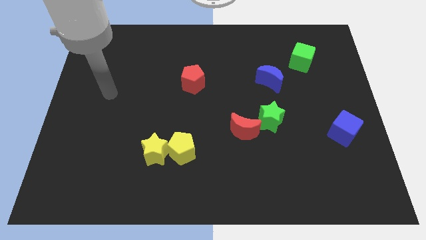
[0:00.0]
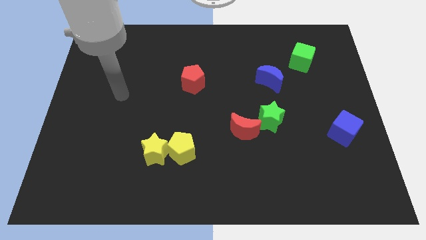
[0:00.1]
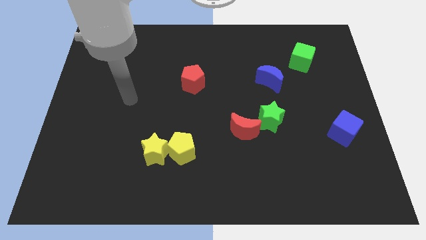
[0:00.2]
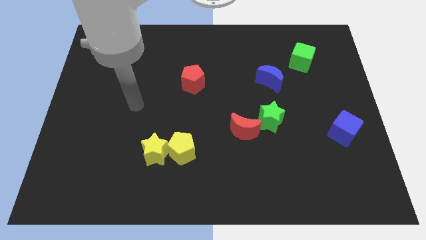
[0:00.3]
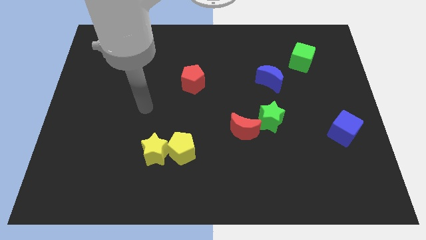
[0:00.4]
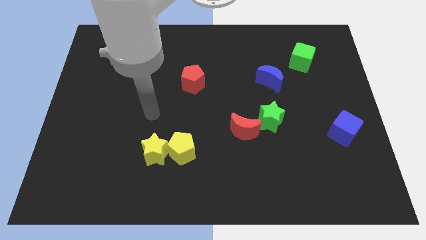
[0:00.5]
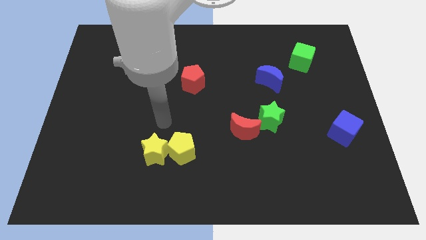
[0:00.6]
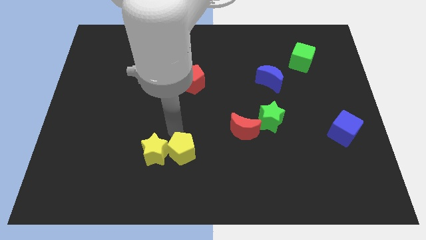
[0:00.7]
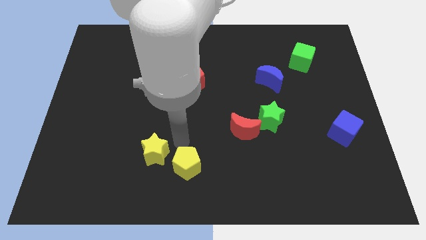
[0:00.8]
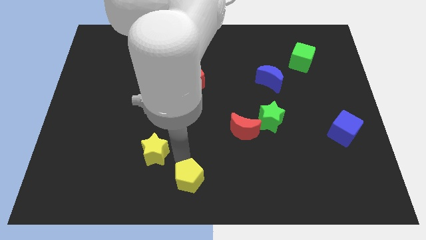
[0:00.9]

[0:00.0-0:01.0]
move the yellow star away from the yellow pentagon

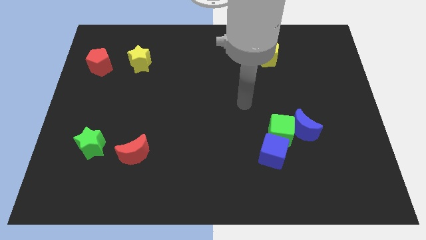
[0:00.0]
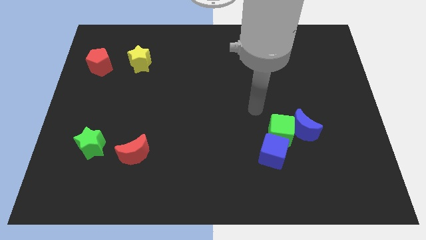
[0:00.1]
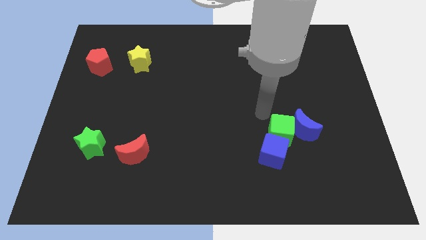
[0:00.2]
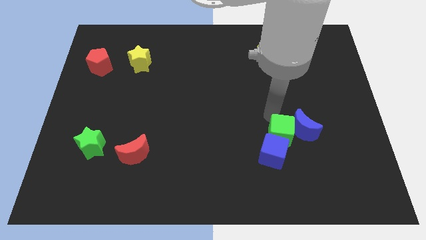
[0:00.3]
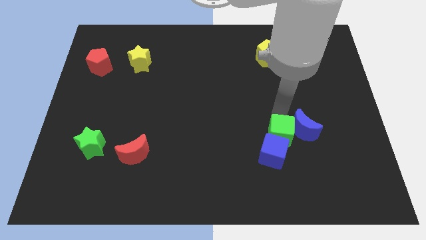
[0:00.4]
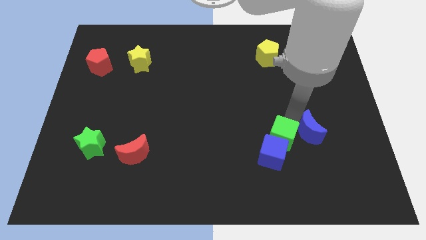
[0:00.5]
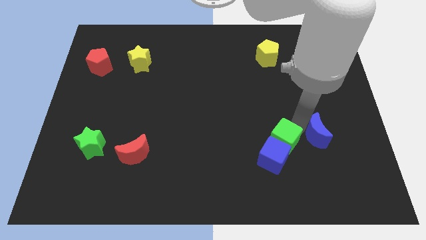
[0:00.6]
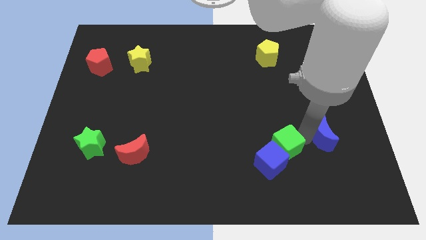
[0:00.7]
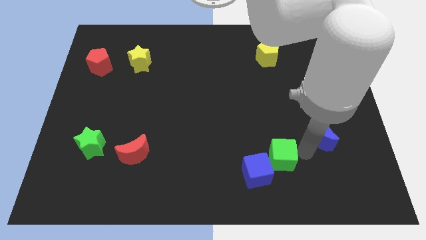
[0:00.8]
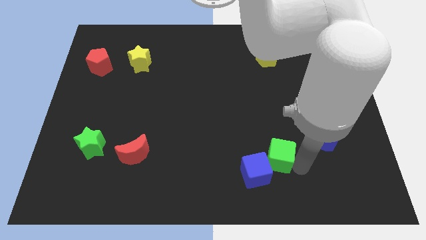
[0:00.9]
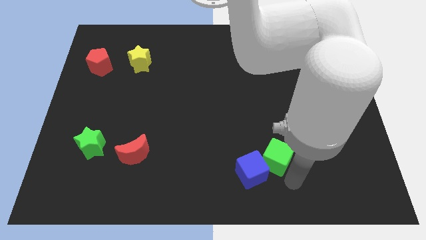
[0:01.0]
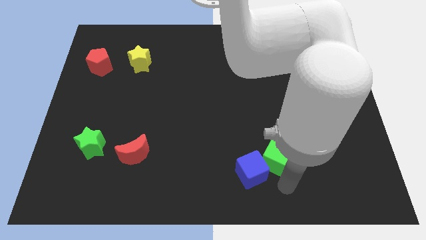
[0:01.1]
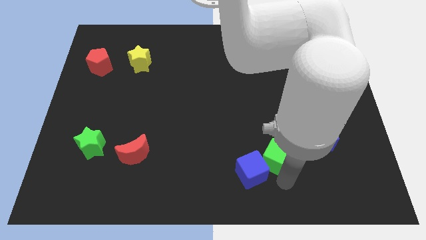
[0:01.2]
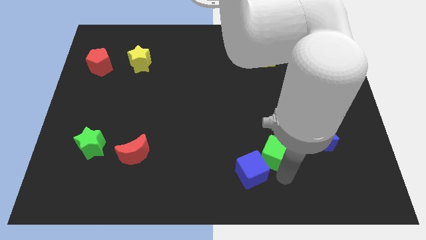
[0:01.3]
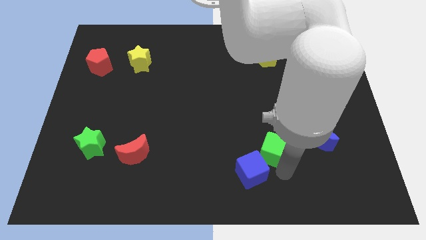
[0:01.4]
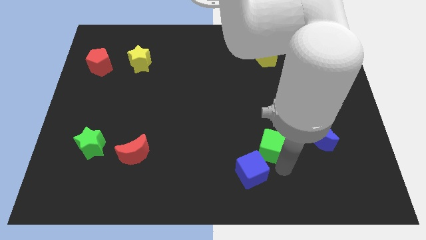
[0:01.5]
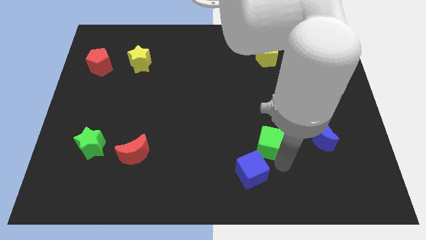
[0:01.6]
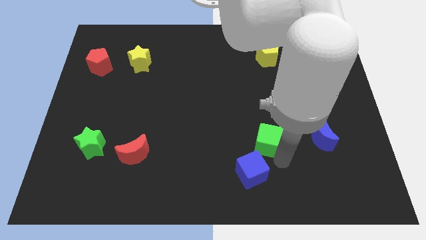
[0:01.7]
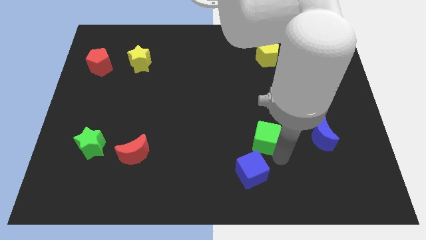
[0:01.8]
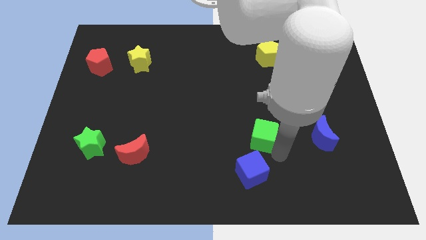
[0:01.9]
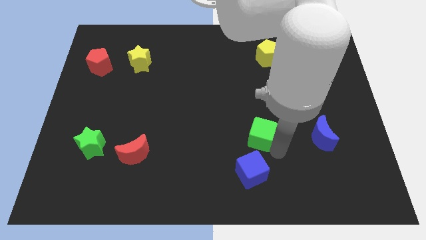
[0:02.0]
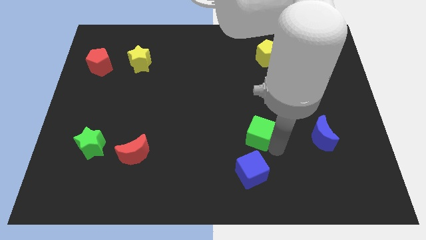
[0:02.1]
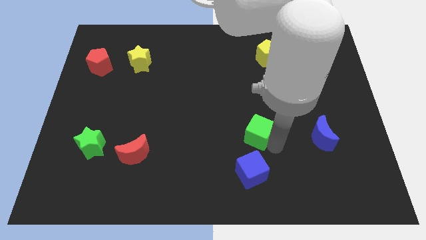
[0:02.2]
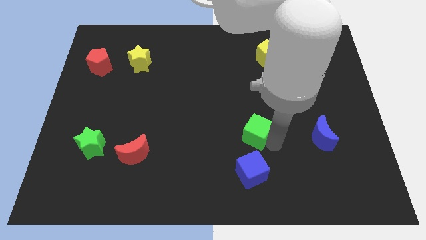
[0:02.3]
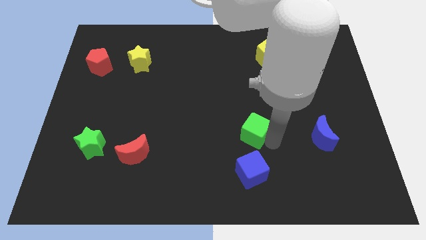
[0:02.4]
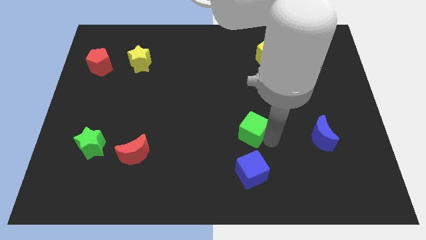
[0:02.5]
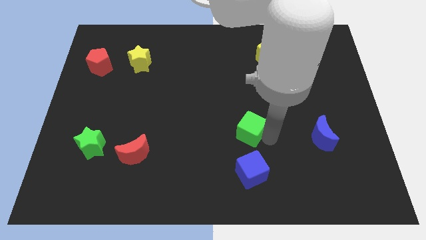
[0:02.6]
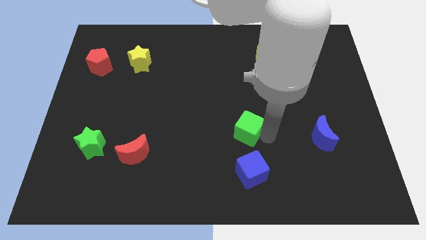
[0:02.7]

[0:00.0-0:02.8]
pull the green cube apart from the blue moon and blue cube

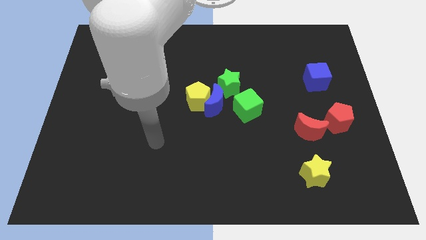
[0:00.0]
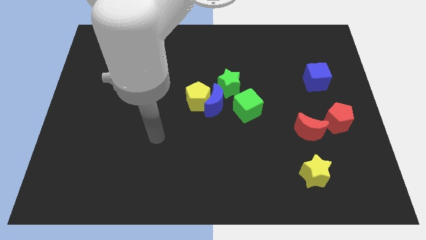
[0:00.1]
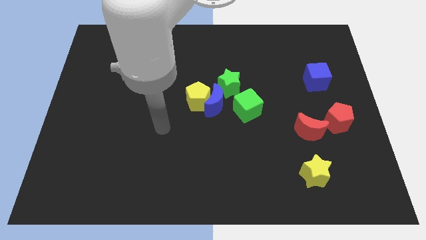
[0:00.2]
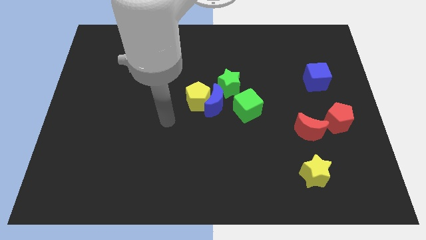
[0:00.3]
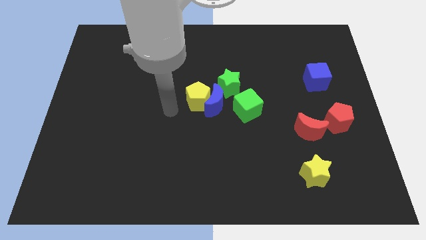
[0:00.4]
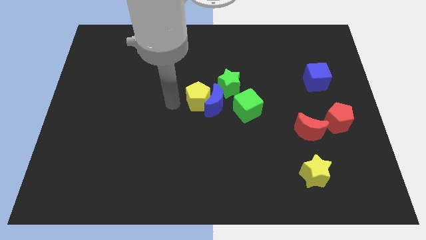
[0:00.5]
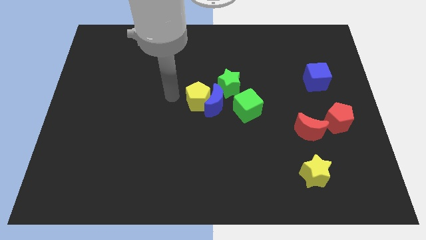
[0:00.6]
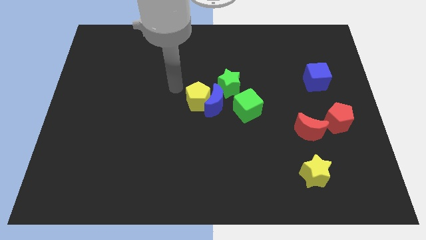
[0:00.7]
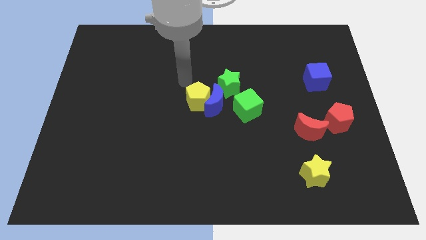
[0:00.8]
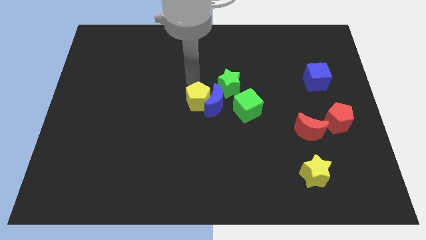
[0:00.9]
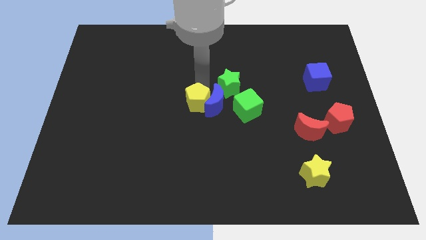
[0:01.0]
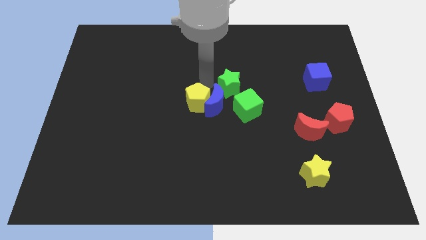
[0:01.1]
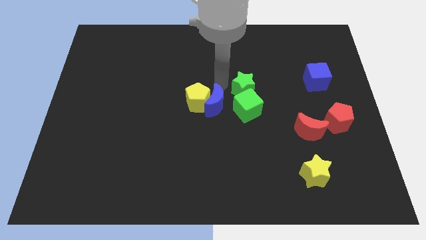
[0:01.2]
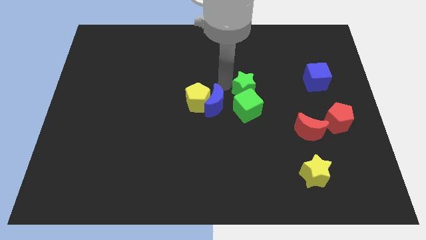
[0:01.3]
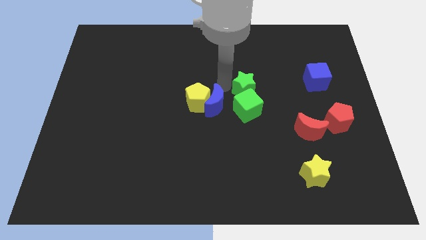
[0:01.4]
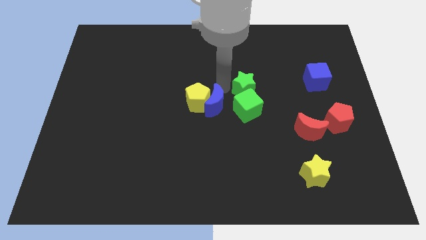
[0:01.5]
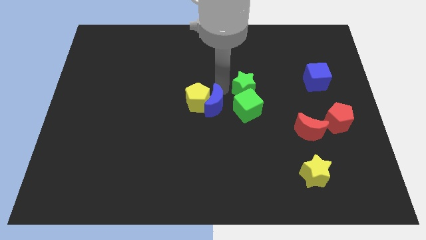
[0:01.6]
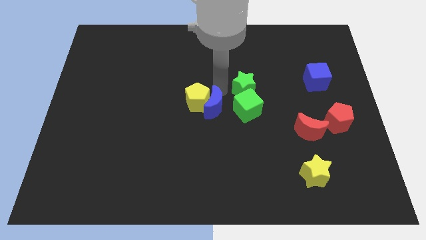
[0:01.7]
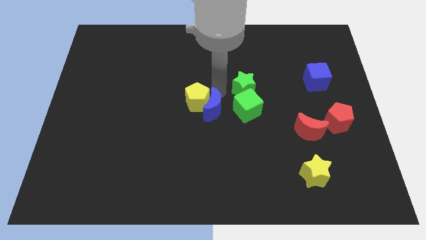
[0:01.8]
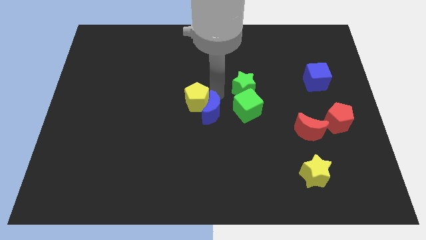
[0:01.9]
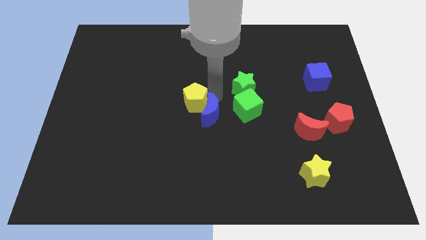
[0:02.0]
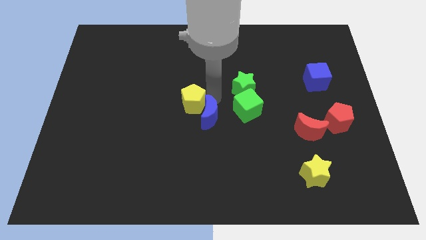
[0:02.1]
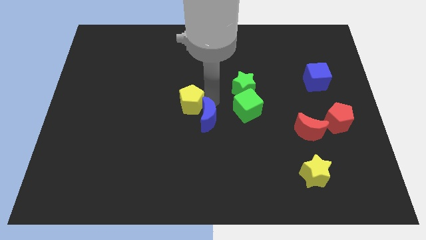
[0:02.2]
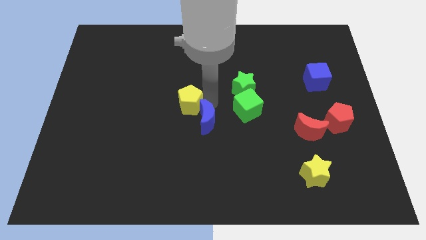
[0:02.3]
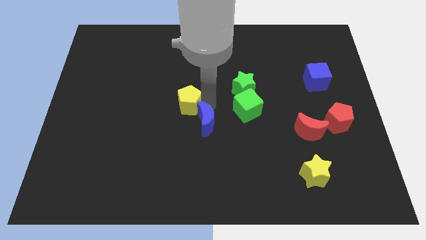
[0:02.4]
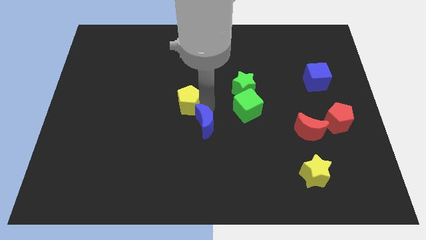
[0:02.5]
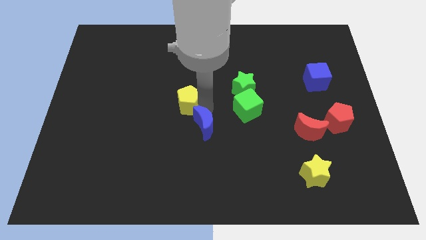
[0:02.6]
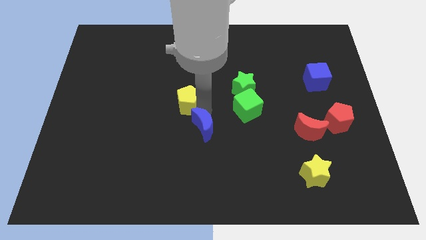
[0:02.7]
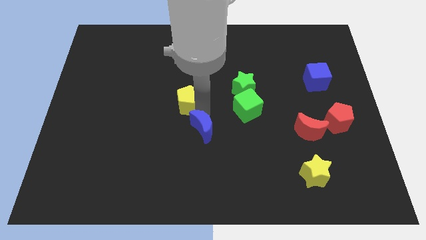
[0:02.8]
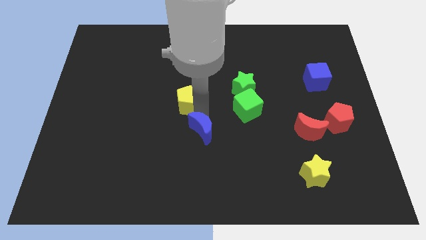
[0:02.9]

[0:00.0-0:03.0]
pull the blue moon apart from the yellow pentagon, green star, and green cube

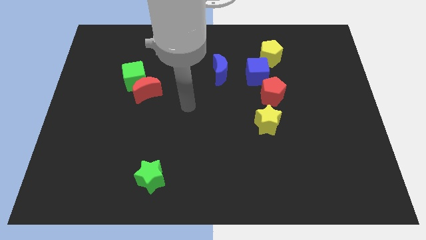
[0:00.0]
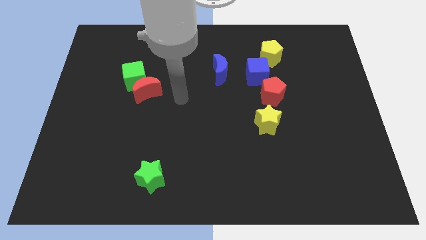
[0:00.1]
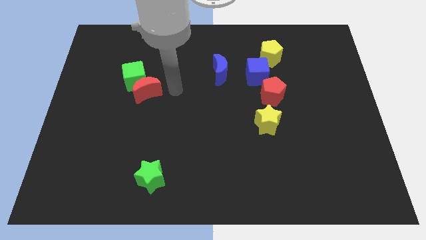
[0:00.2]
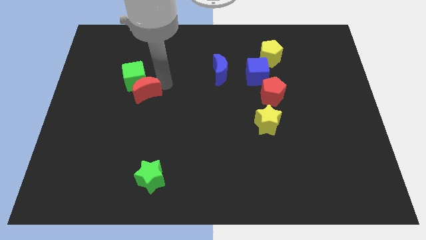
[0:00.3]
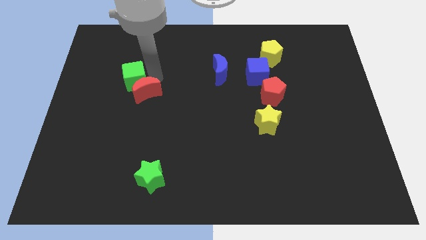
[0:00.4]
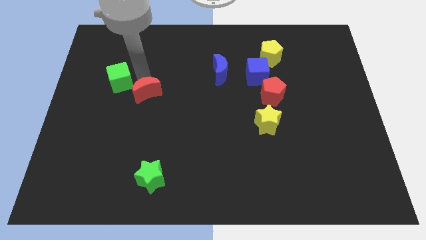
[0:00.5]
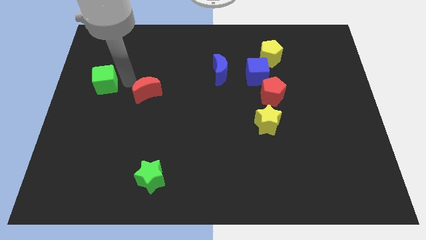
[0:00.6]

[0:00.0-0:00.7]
move the red moon away from the green cube

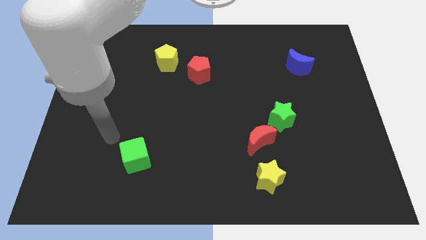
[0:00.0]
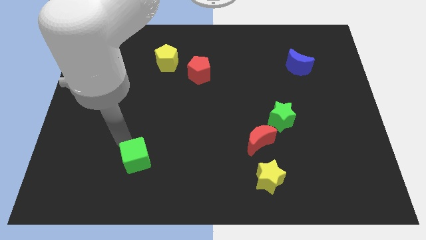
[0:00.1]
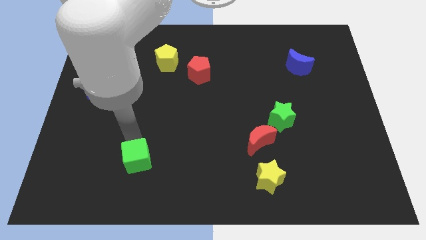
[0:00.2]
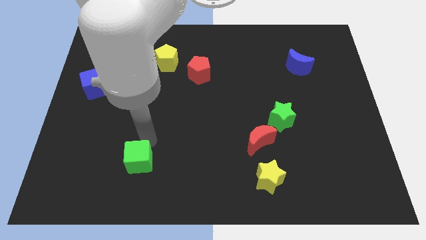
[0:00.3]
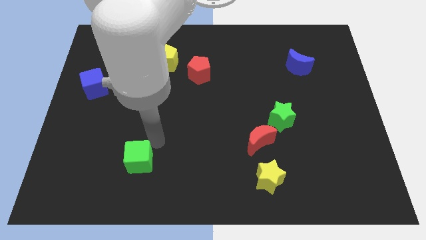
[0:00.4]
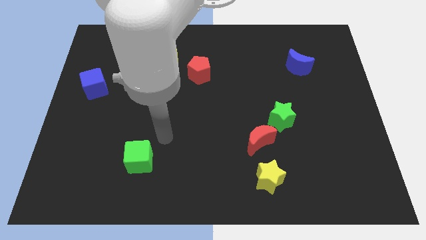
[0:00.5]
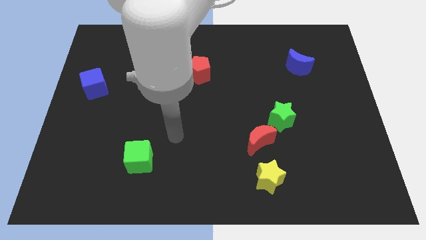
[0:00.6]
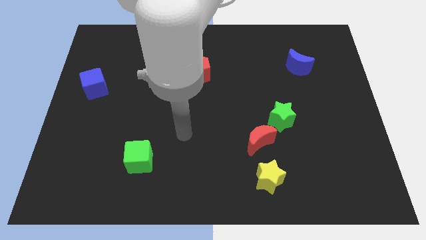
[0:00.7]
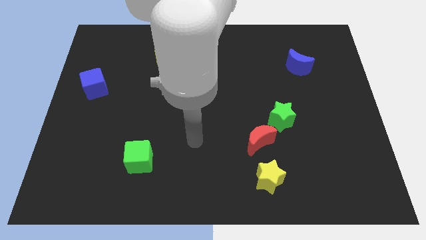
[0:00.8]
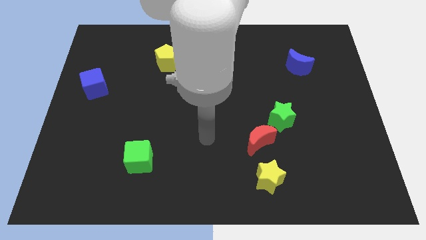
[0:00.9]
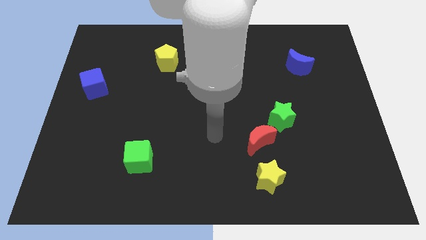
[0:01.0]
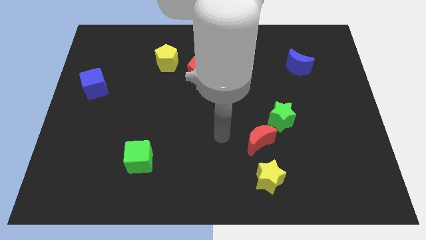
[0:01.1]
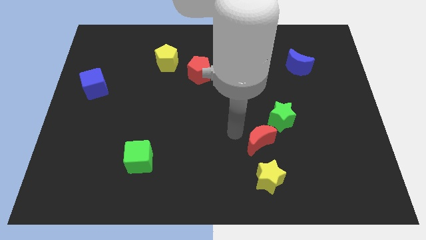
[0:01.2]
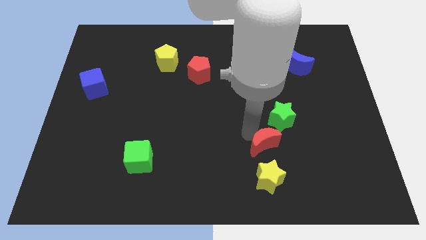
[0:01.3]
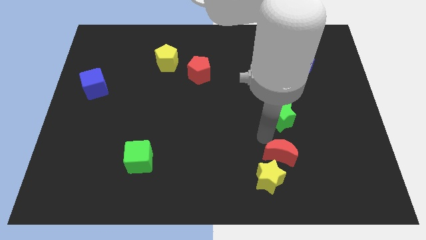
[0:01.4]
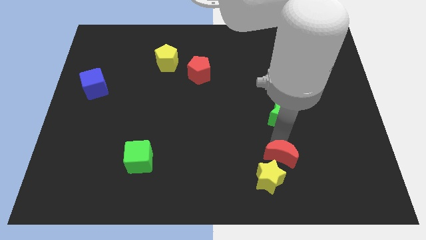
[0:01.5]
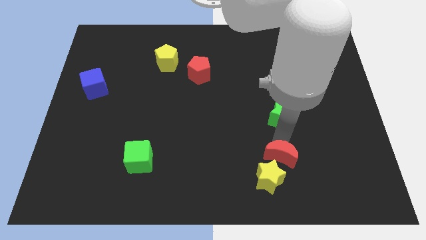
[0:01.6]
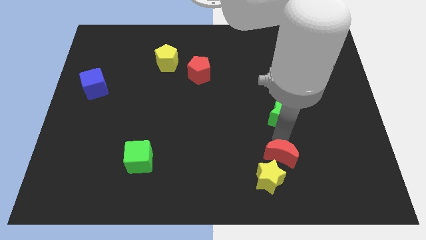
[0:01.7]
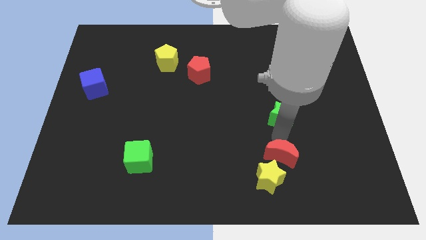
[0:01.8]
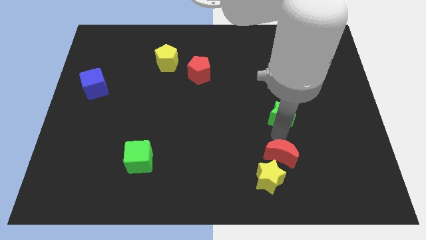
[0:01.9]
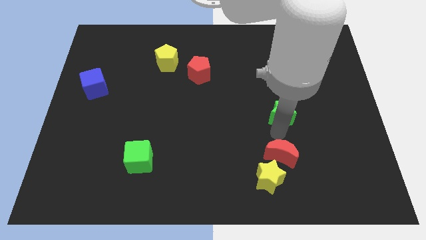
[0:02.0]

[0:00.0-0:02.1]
pull the green star apart from the red moon
